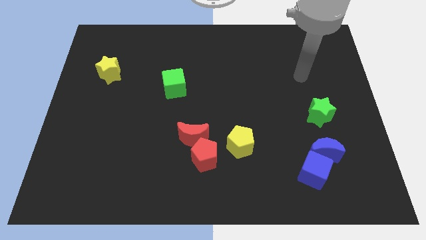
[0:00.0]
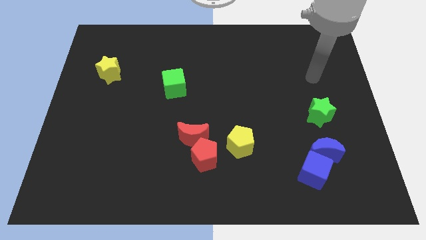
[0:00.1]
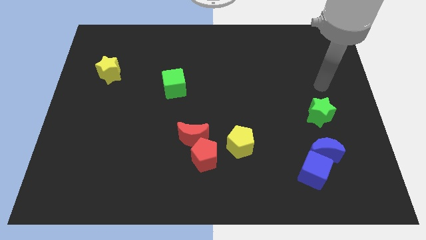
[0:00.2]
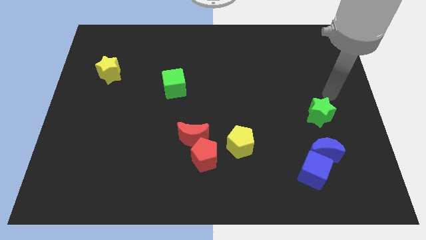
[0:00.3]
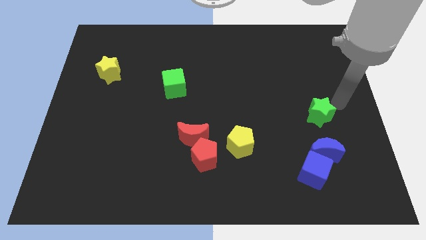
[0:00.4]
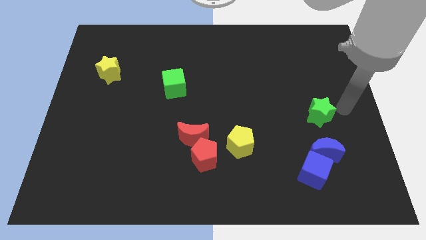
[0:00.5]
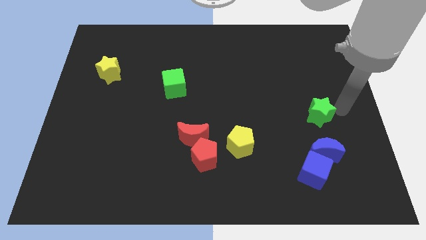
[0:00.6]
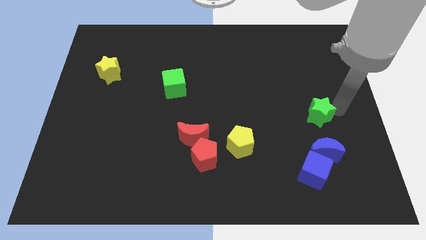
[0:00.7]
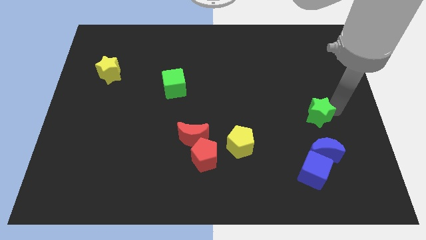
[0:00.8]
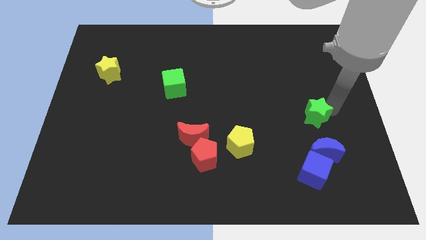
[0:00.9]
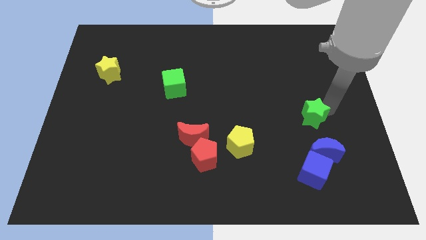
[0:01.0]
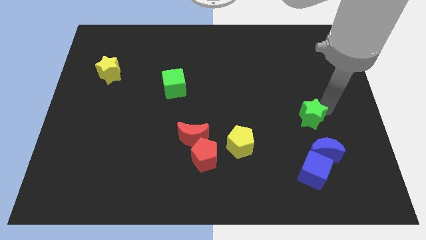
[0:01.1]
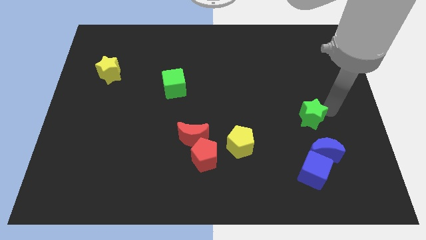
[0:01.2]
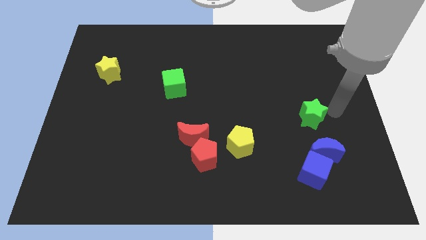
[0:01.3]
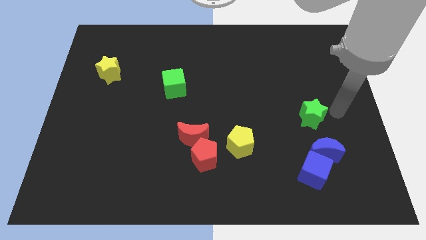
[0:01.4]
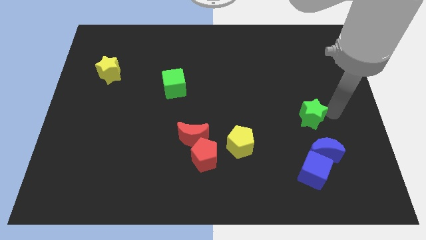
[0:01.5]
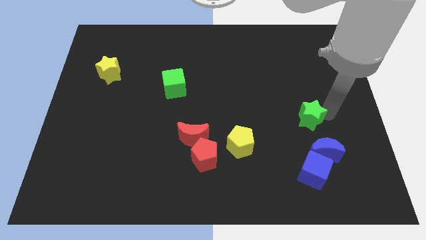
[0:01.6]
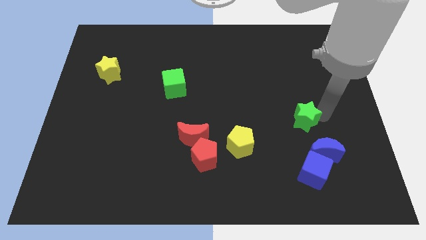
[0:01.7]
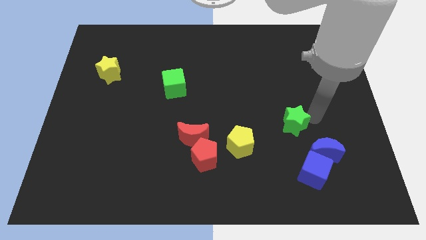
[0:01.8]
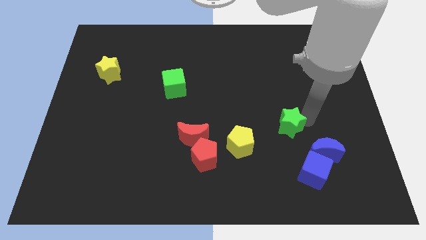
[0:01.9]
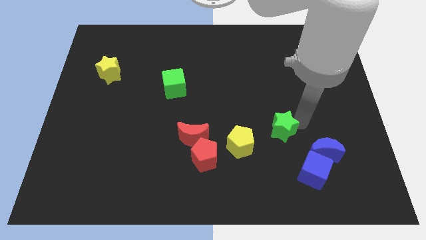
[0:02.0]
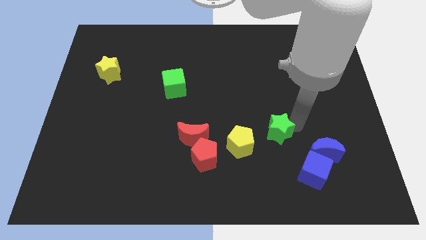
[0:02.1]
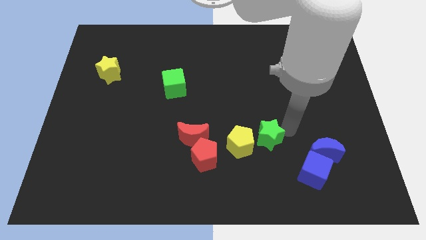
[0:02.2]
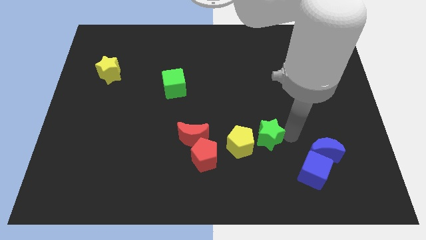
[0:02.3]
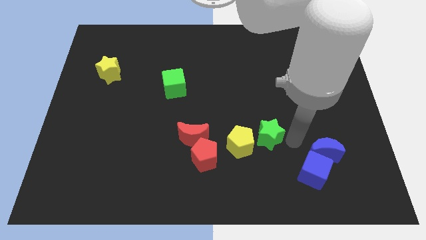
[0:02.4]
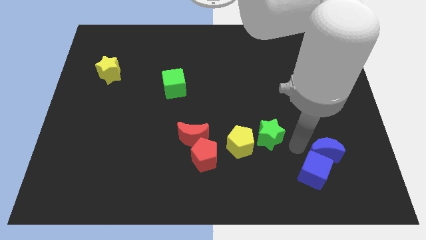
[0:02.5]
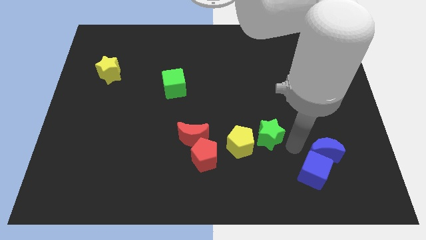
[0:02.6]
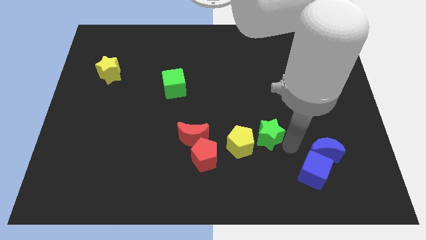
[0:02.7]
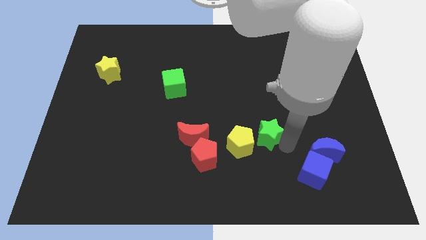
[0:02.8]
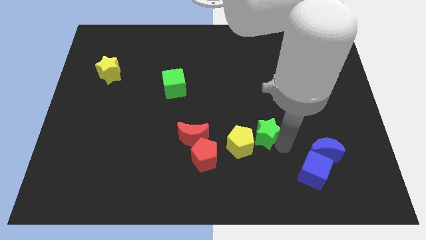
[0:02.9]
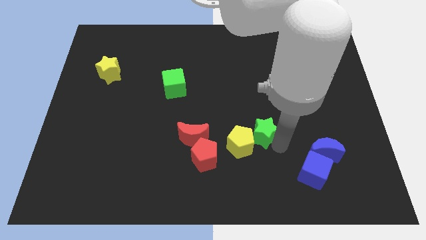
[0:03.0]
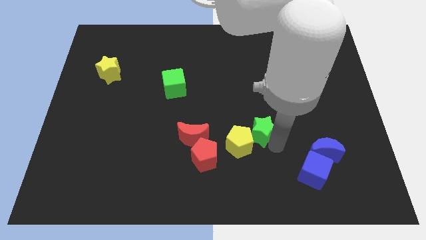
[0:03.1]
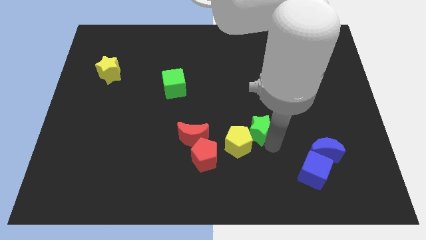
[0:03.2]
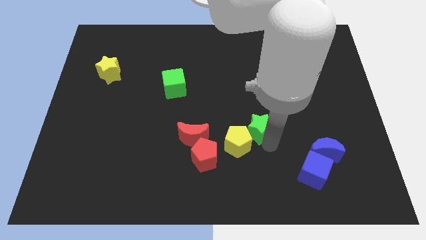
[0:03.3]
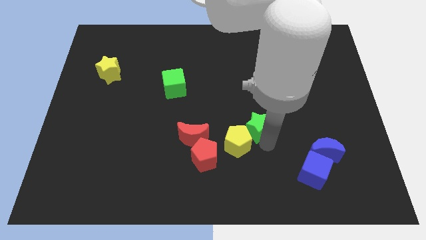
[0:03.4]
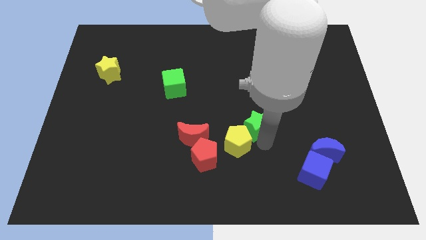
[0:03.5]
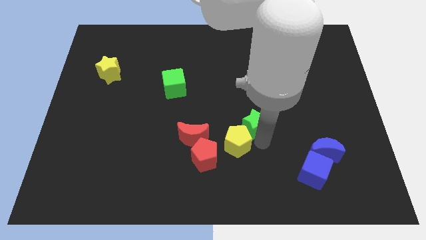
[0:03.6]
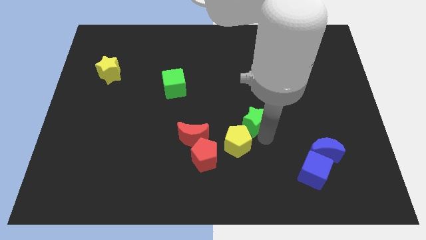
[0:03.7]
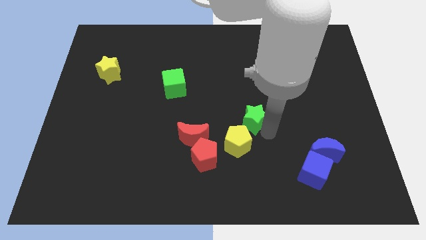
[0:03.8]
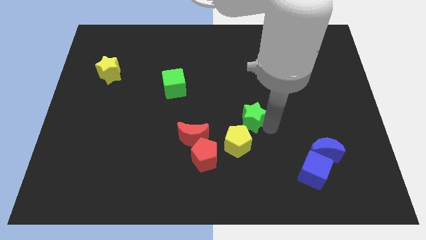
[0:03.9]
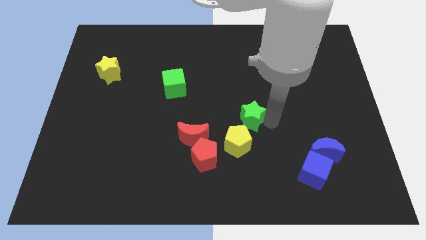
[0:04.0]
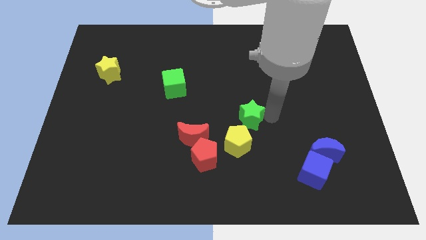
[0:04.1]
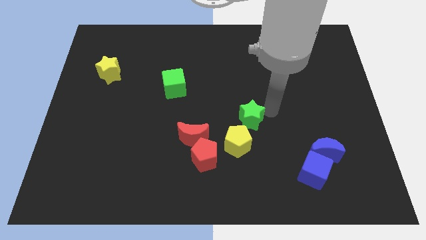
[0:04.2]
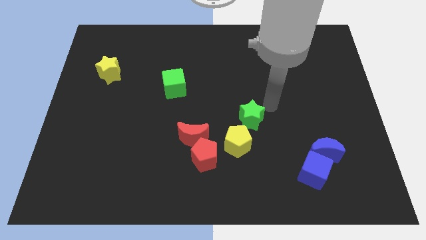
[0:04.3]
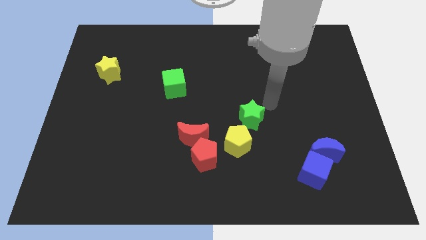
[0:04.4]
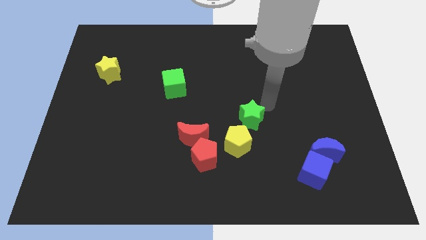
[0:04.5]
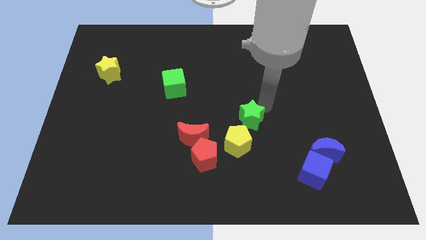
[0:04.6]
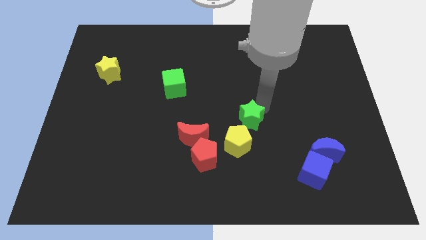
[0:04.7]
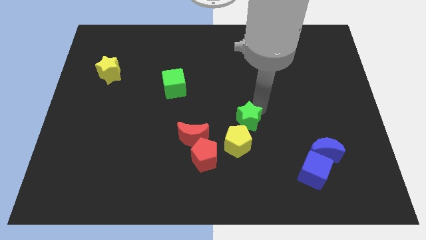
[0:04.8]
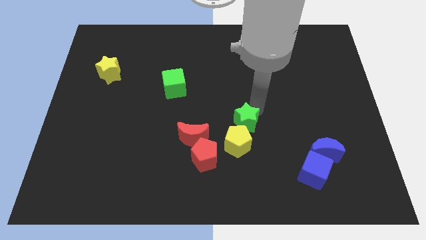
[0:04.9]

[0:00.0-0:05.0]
push the green star to the top right of the red pentagon

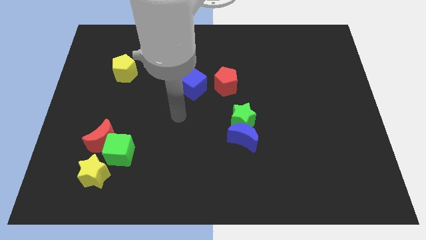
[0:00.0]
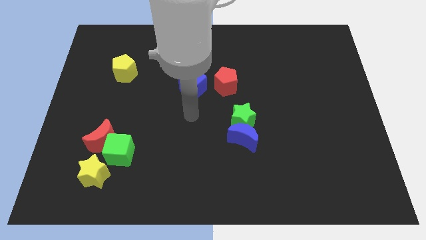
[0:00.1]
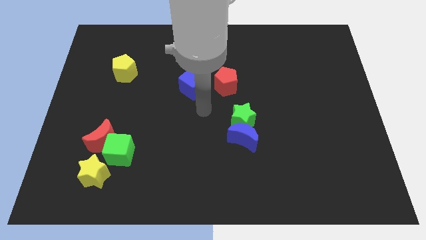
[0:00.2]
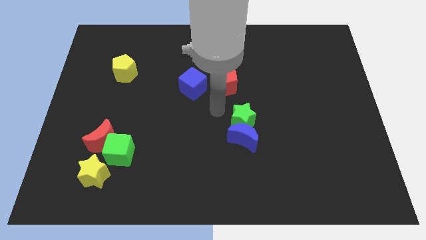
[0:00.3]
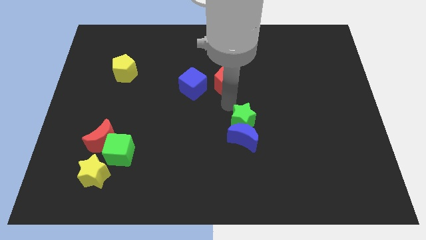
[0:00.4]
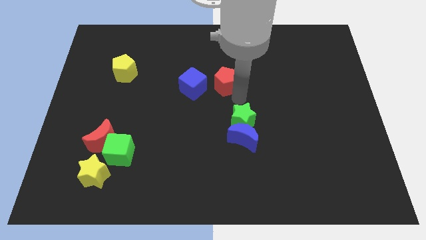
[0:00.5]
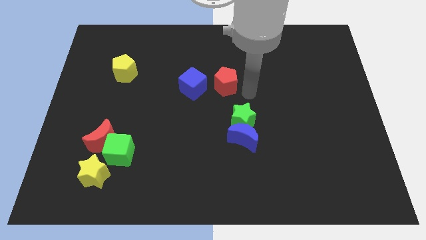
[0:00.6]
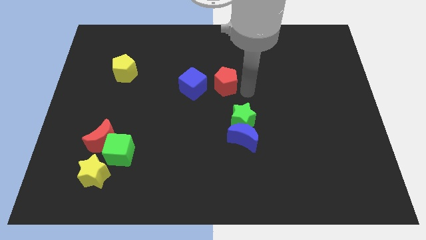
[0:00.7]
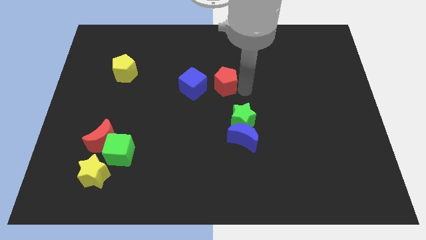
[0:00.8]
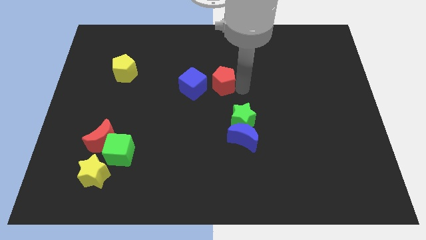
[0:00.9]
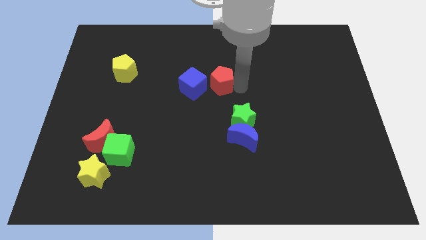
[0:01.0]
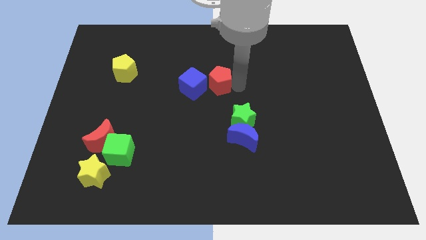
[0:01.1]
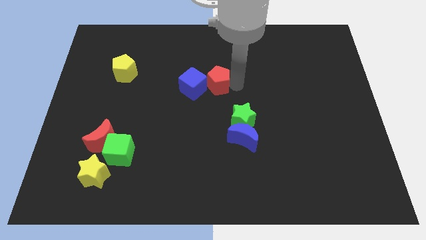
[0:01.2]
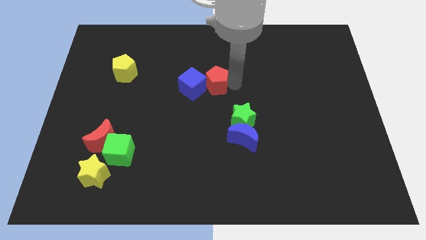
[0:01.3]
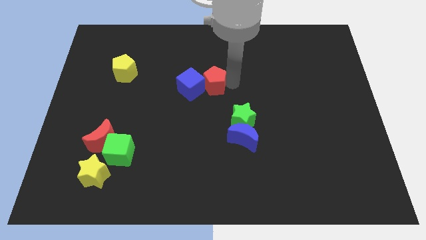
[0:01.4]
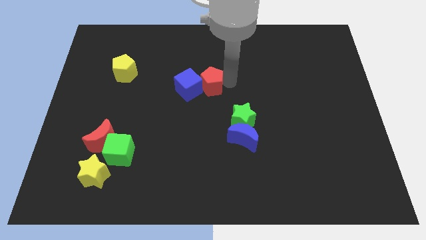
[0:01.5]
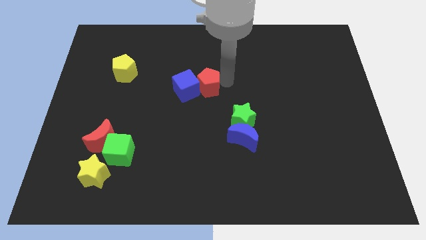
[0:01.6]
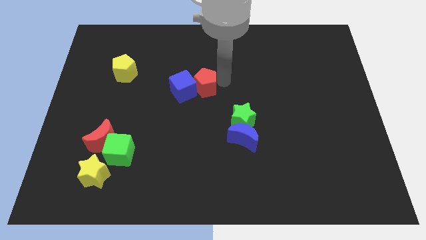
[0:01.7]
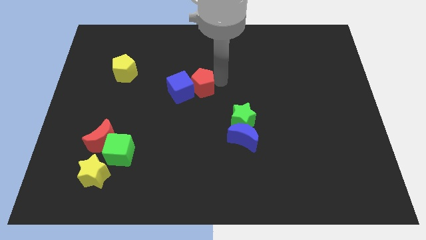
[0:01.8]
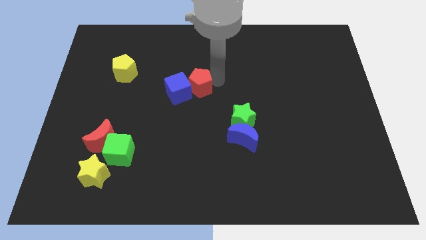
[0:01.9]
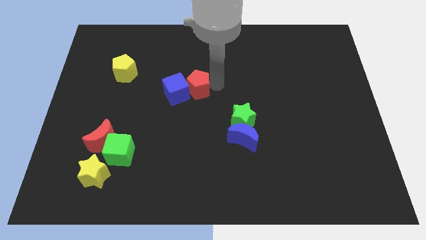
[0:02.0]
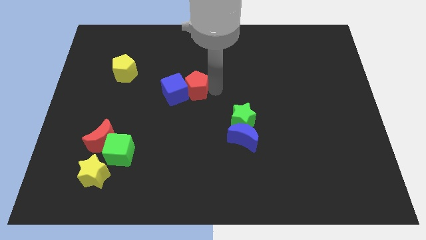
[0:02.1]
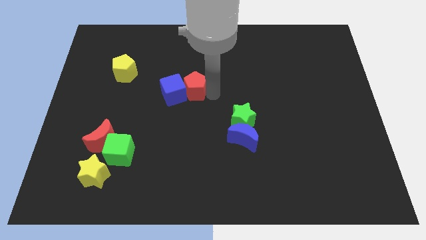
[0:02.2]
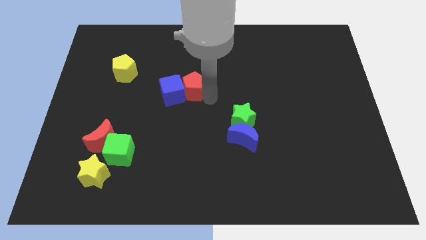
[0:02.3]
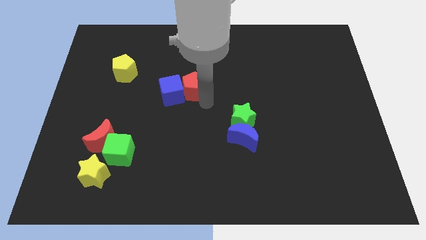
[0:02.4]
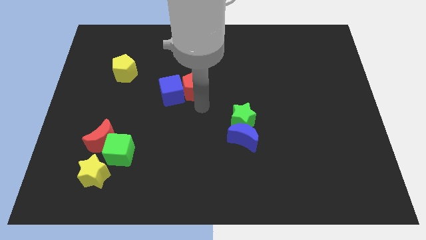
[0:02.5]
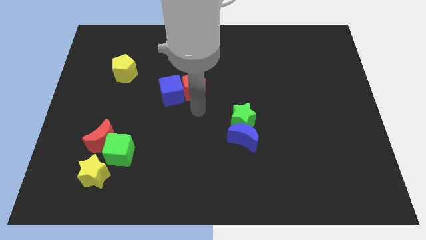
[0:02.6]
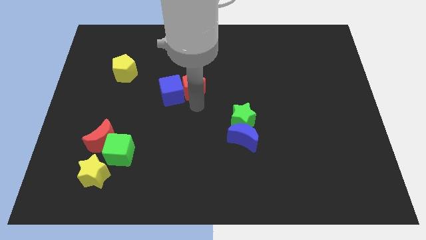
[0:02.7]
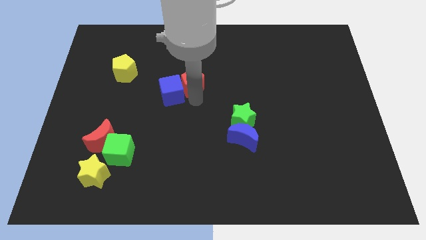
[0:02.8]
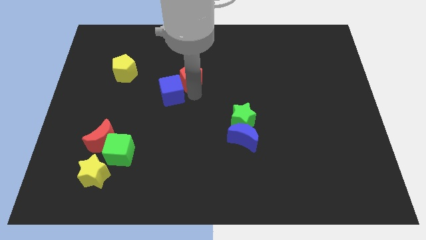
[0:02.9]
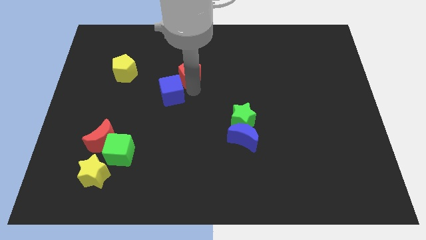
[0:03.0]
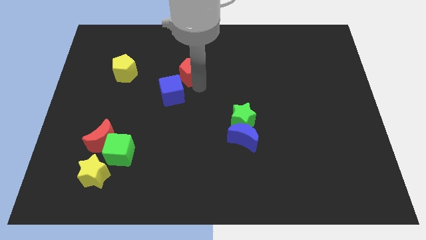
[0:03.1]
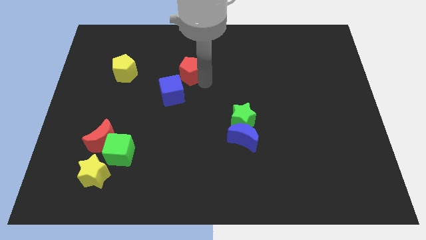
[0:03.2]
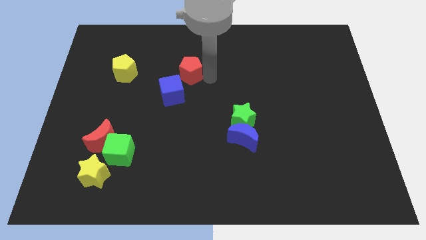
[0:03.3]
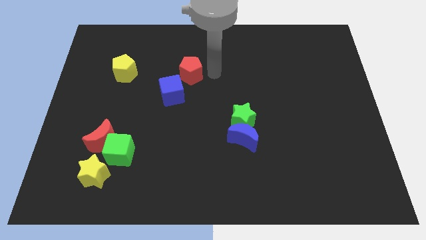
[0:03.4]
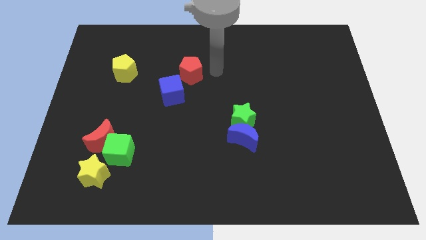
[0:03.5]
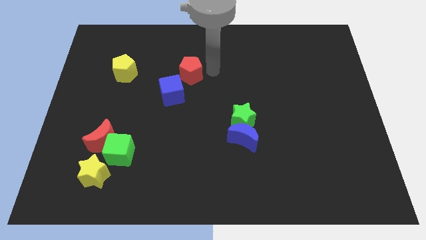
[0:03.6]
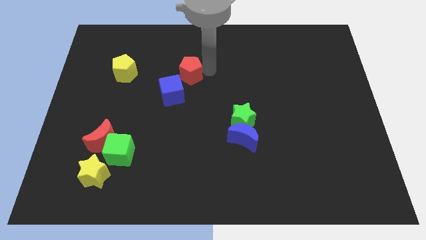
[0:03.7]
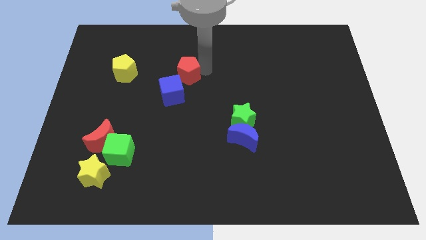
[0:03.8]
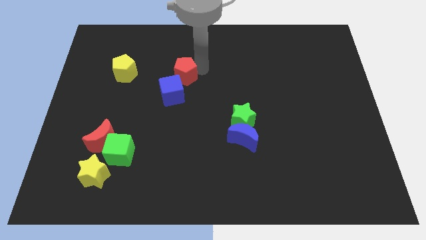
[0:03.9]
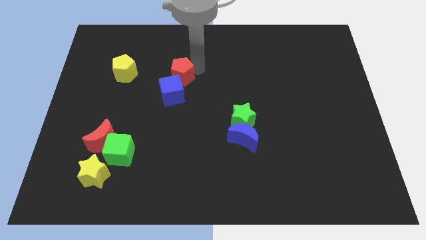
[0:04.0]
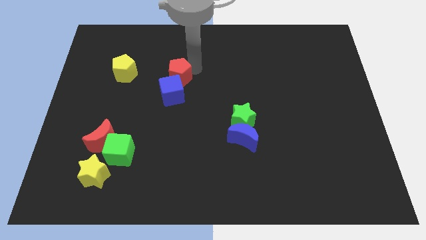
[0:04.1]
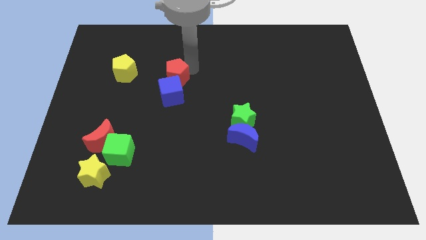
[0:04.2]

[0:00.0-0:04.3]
move the red pentagon to the top left side of the blue cube
